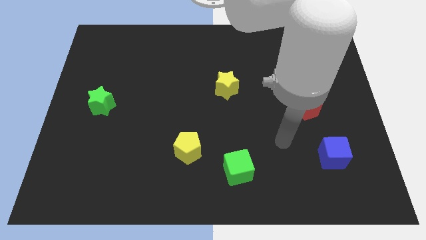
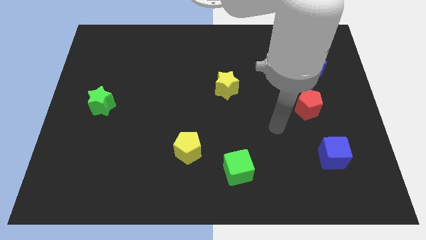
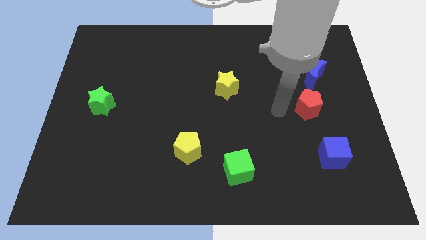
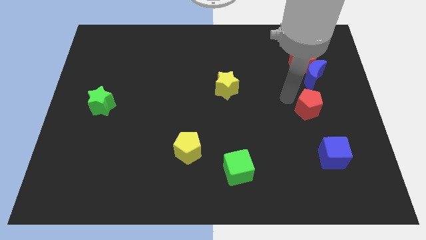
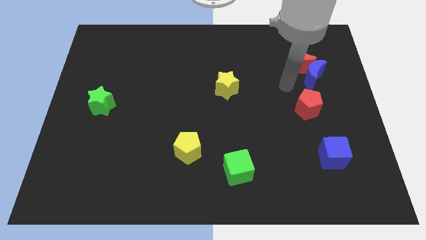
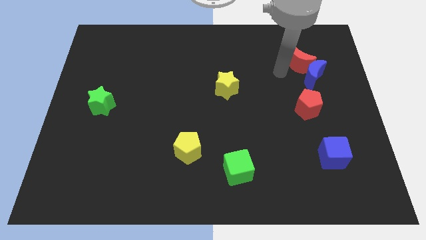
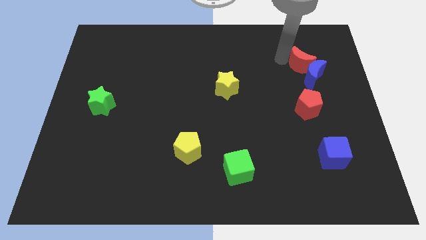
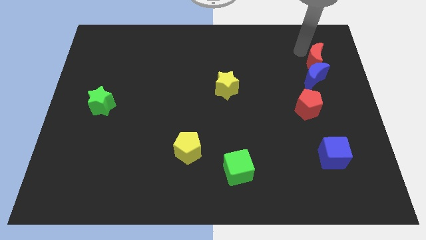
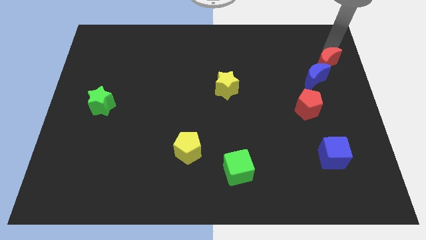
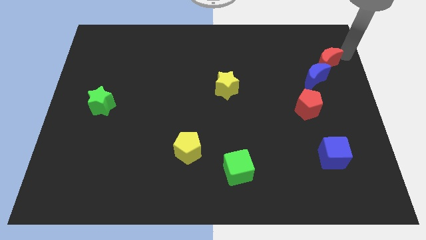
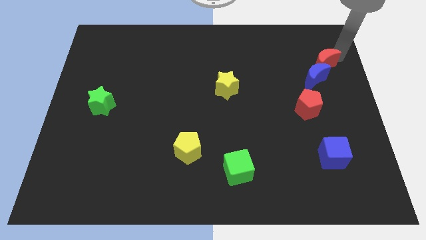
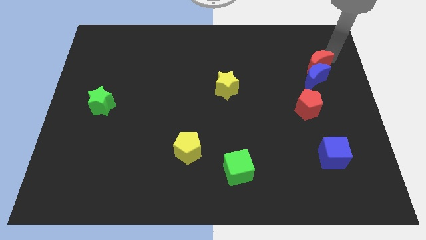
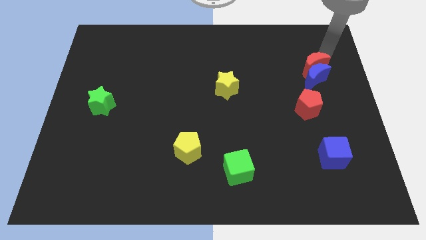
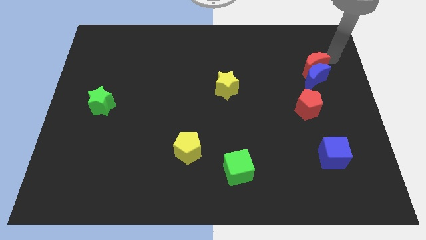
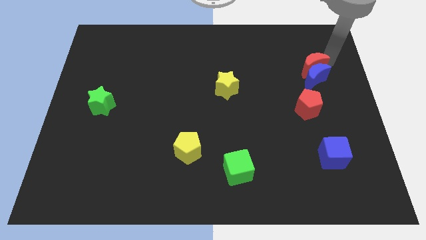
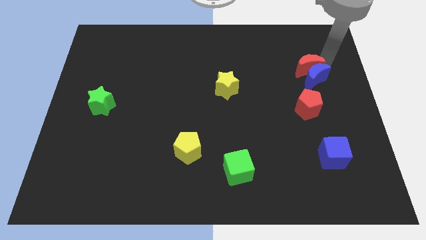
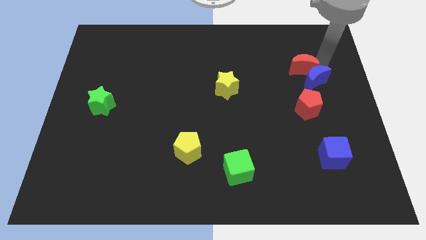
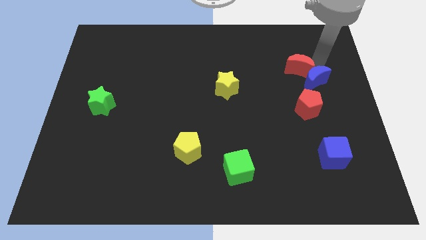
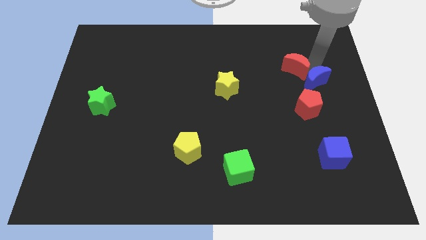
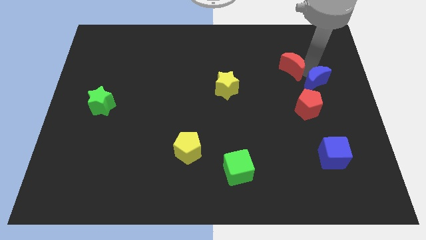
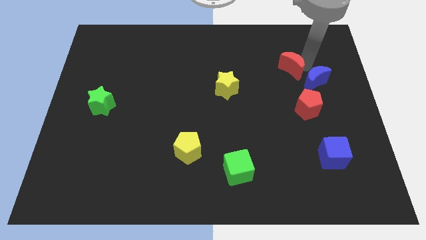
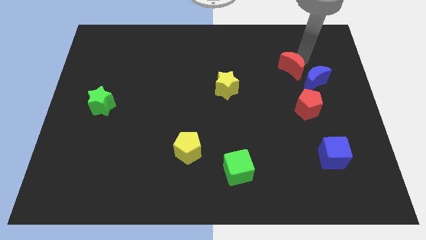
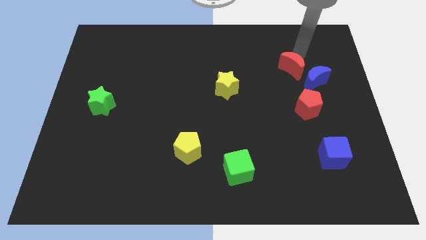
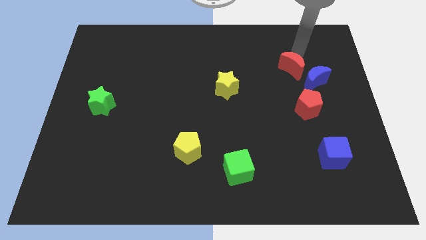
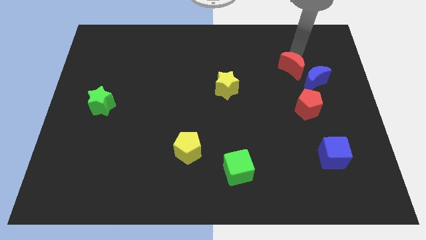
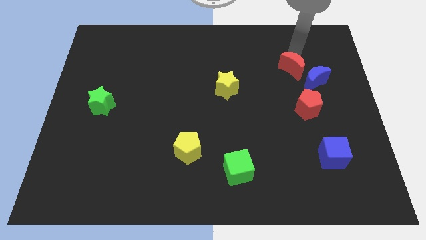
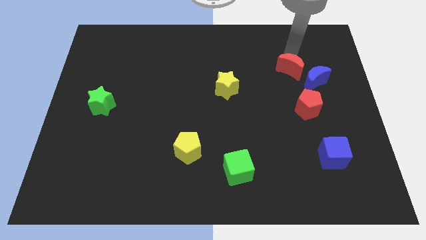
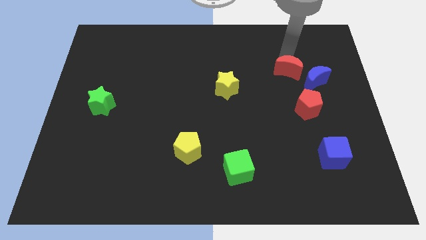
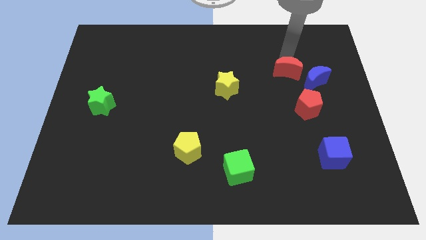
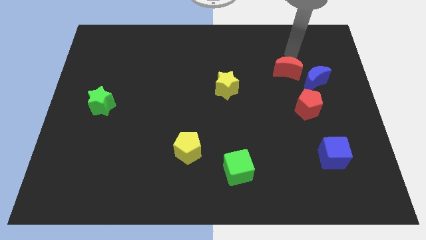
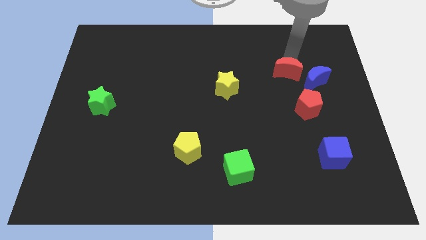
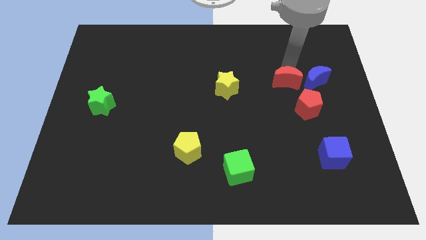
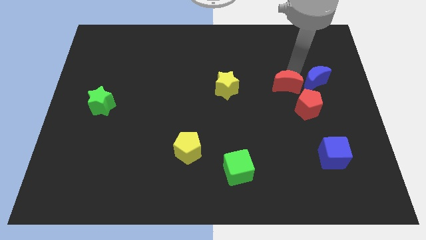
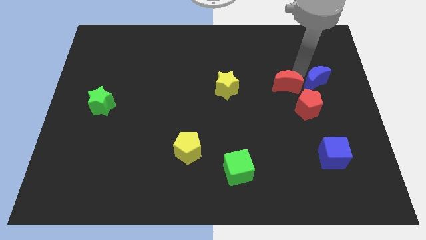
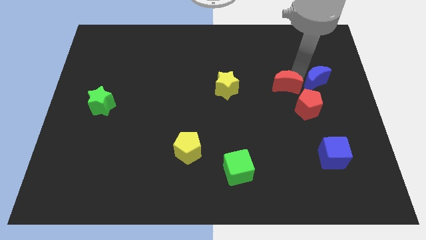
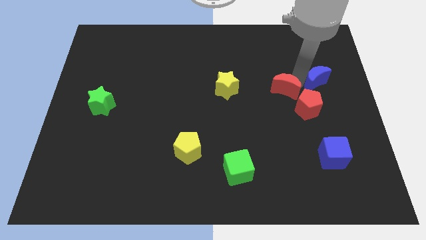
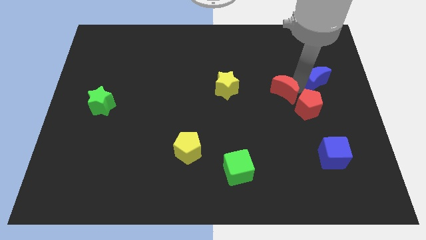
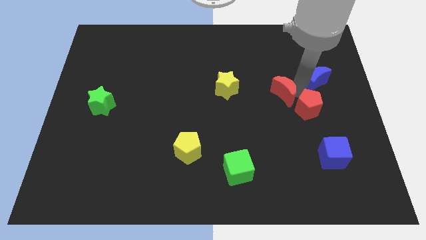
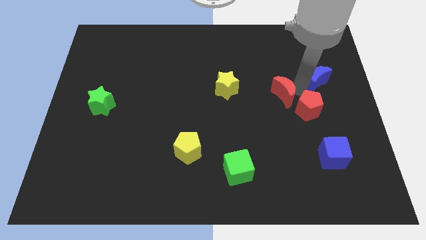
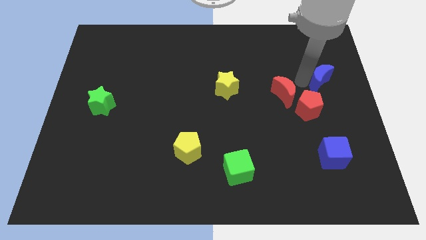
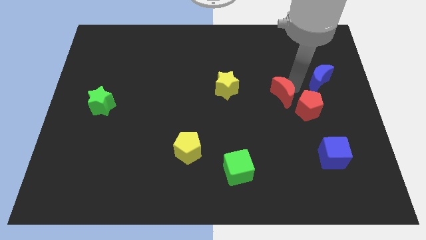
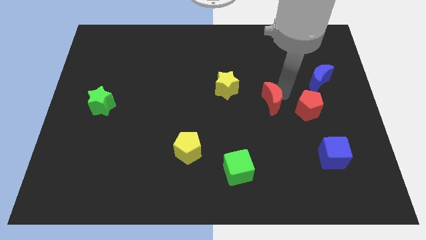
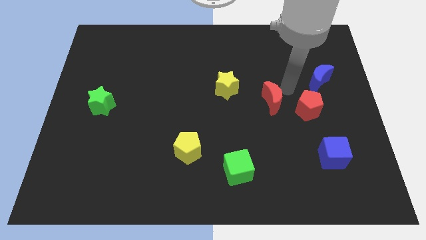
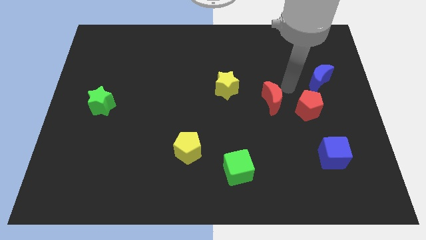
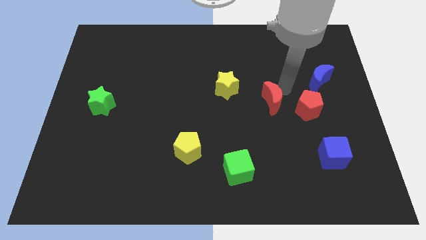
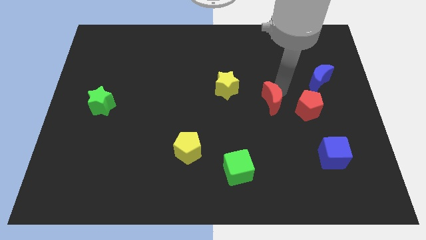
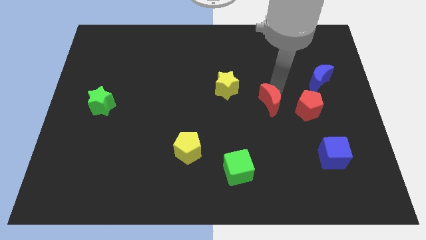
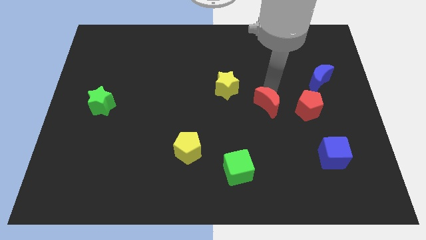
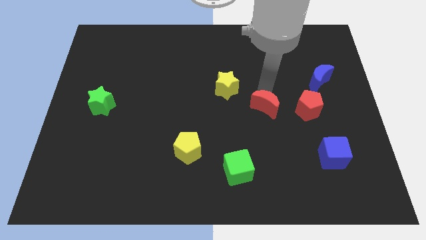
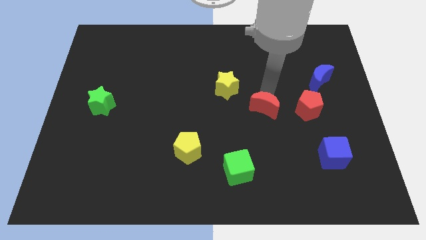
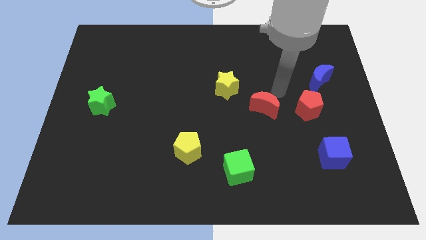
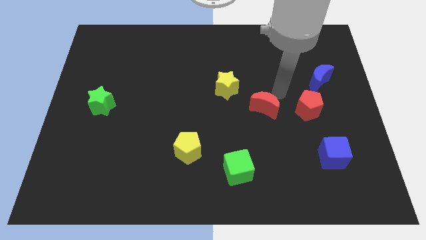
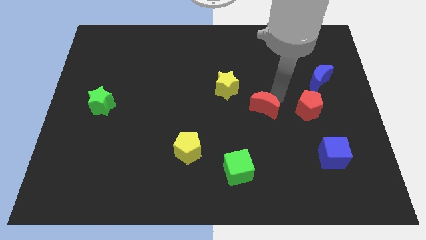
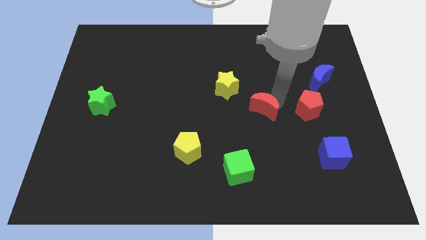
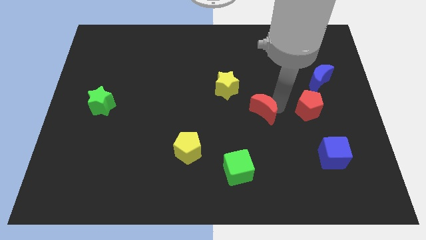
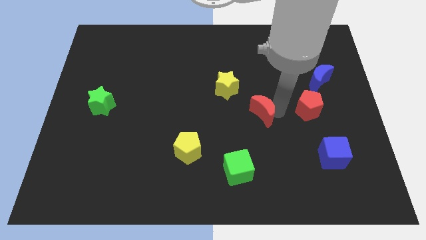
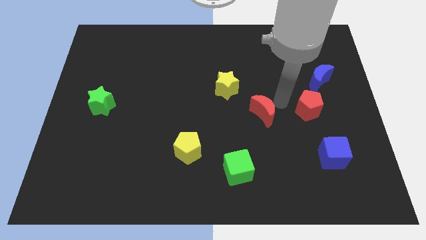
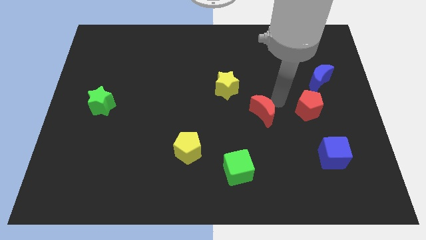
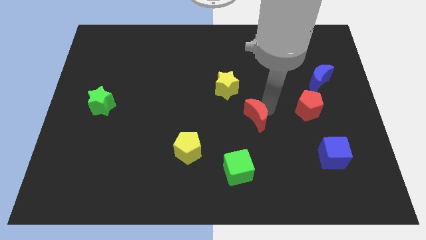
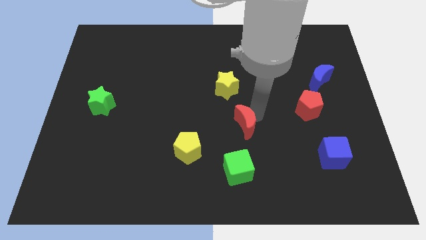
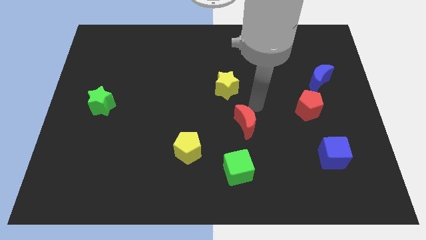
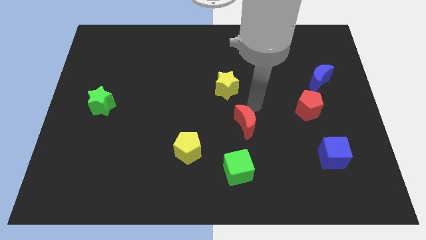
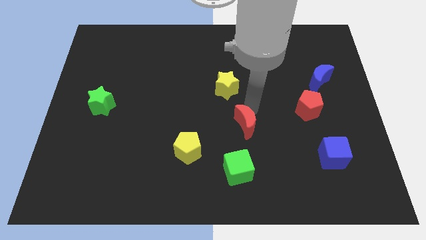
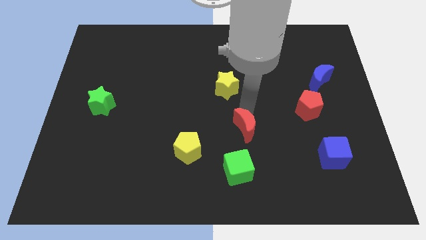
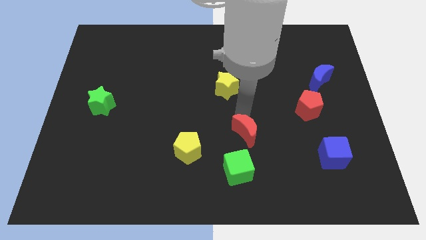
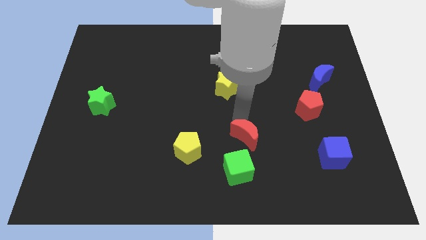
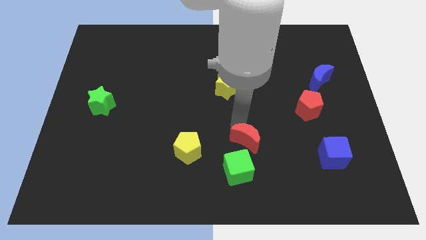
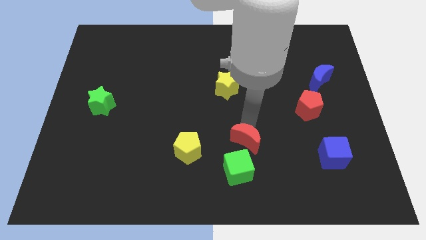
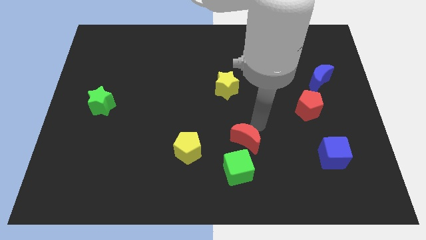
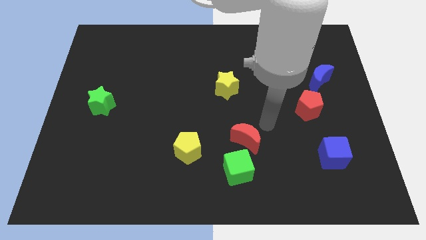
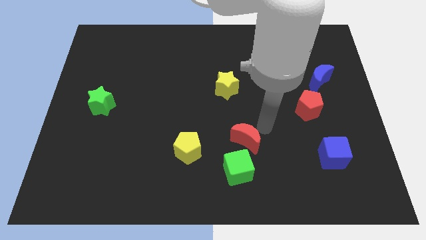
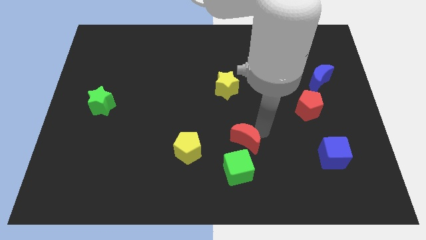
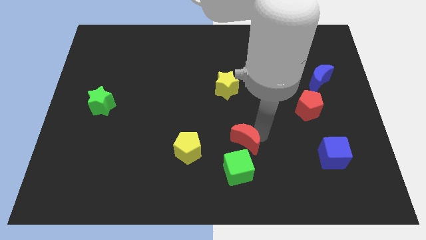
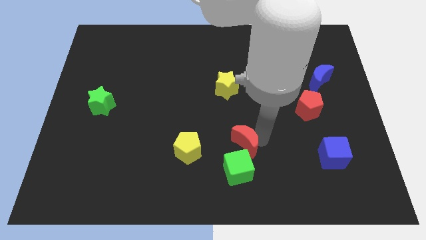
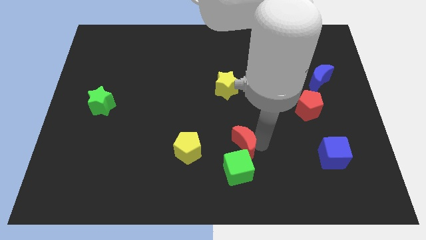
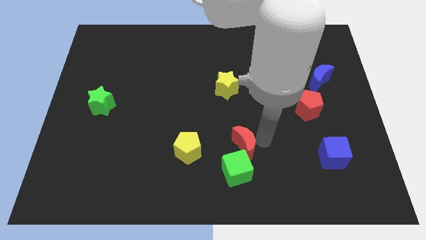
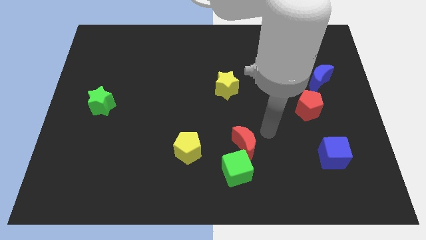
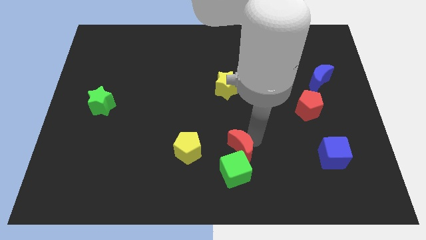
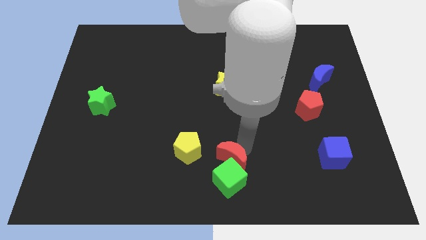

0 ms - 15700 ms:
slide the red moon to the bottom
